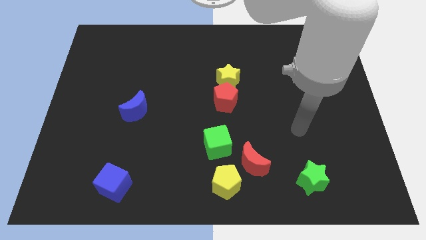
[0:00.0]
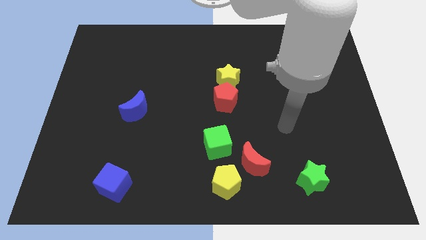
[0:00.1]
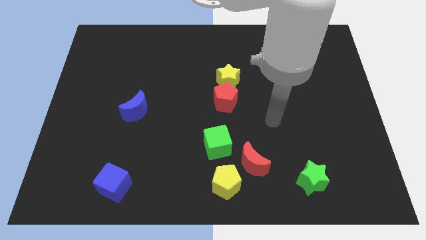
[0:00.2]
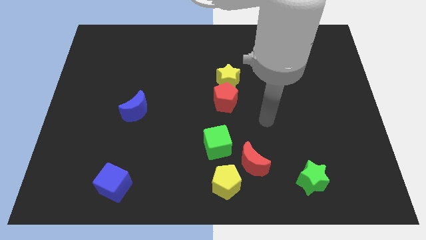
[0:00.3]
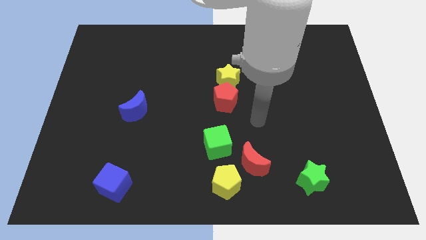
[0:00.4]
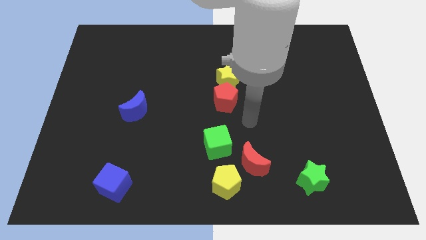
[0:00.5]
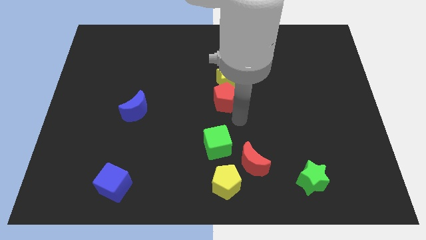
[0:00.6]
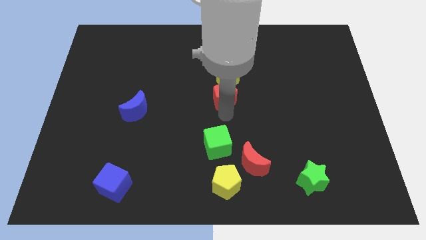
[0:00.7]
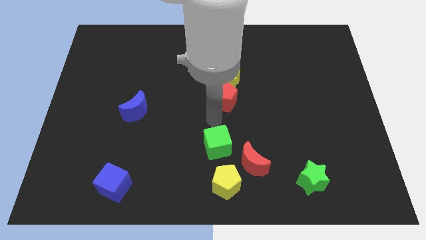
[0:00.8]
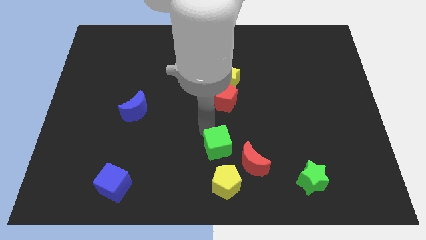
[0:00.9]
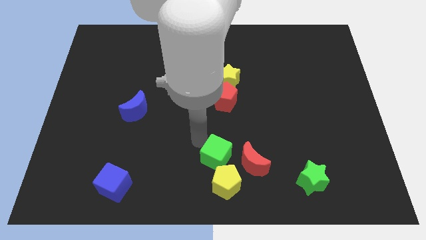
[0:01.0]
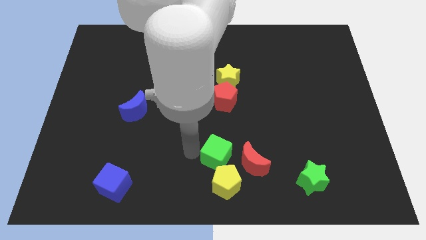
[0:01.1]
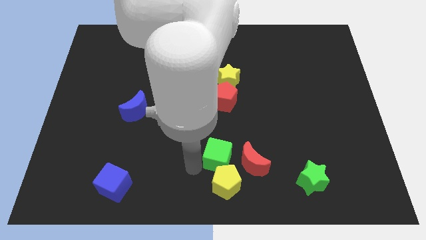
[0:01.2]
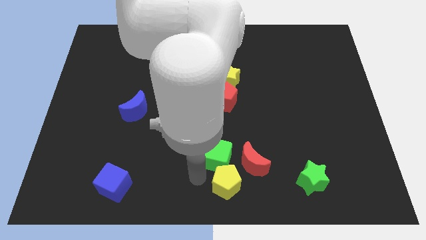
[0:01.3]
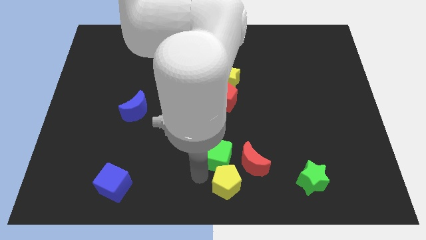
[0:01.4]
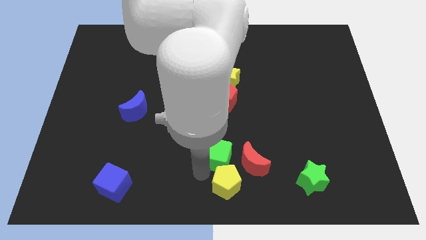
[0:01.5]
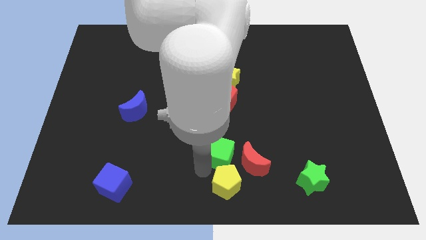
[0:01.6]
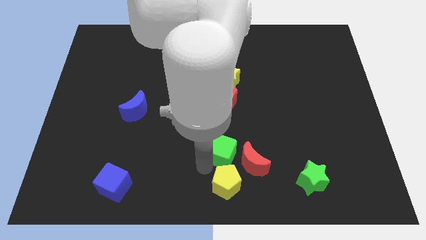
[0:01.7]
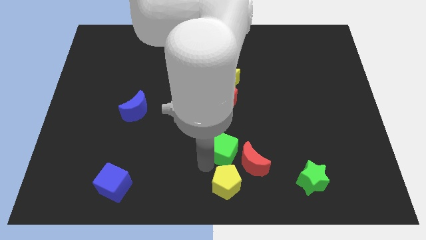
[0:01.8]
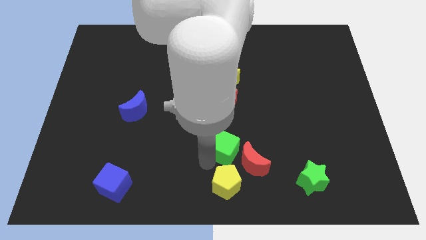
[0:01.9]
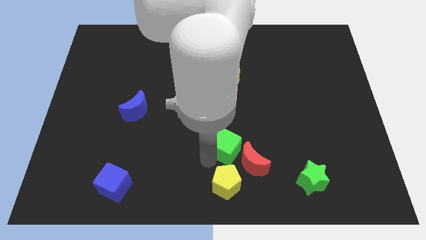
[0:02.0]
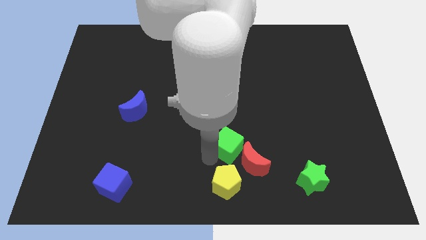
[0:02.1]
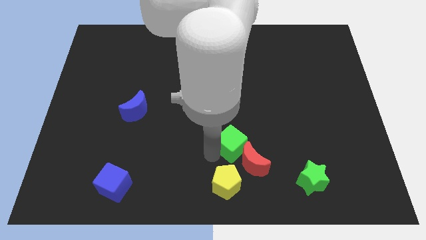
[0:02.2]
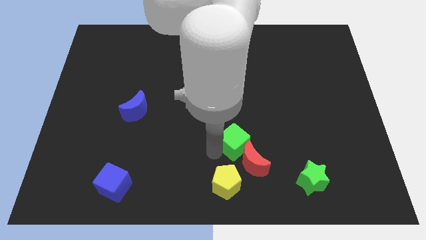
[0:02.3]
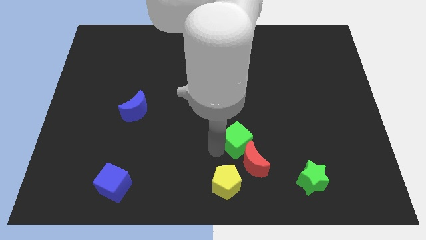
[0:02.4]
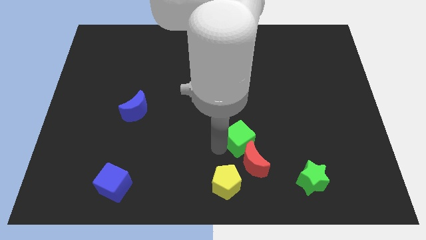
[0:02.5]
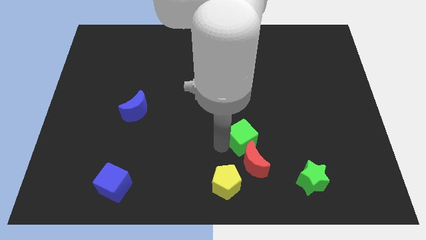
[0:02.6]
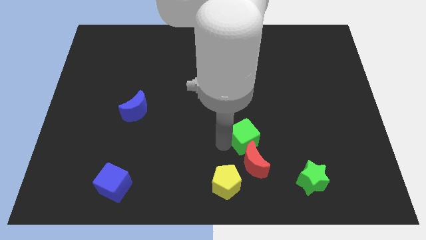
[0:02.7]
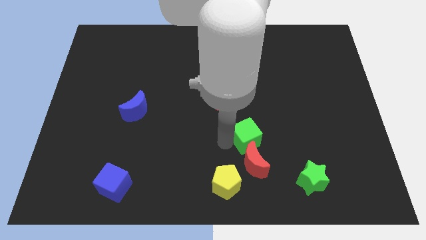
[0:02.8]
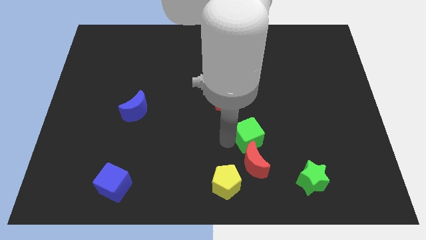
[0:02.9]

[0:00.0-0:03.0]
slightly push the green cube to the right

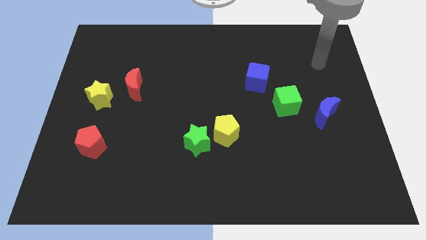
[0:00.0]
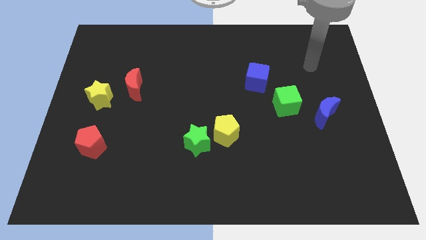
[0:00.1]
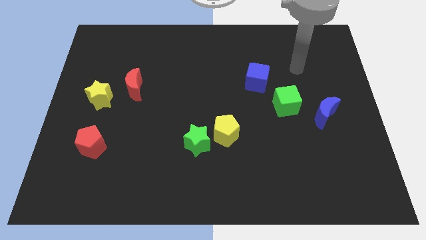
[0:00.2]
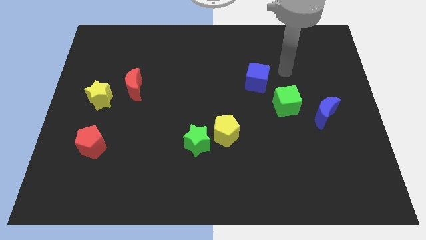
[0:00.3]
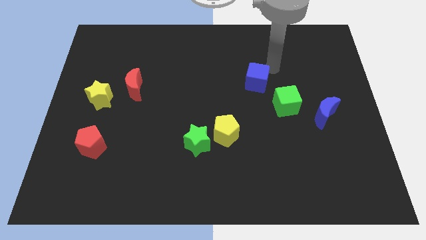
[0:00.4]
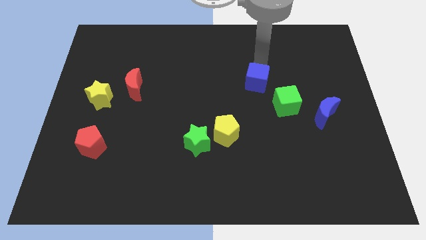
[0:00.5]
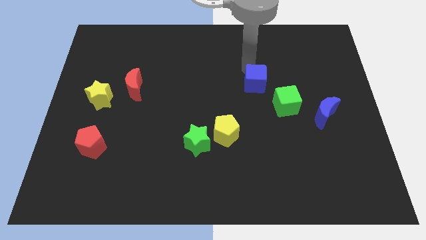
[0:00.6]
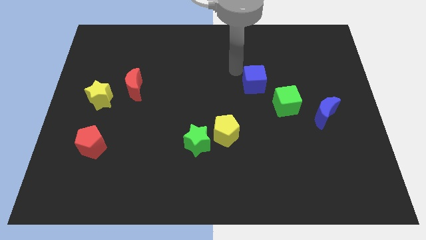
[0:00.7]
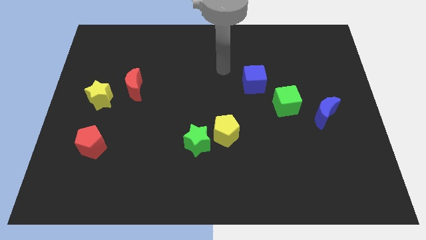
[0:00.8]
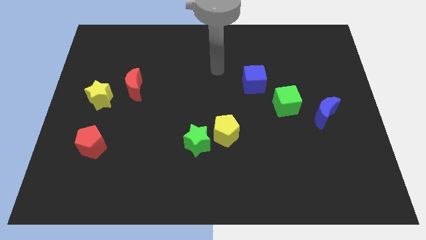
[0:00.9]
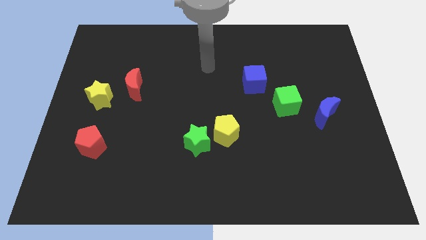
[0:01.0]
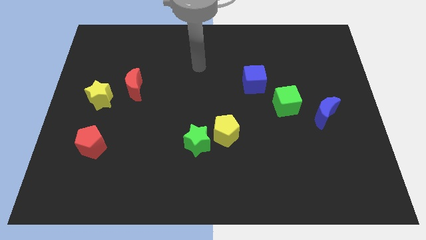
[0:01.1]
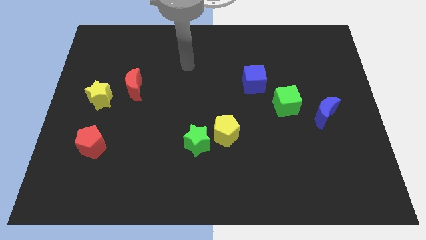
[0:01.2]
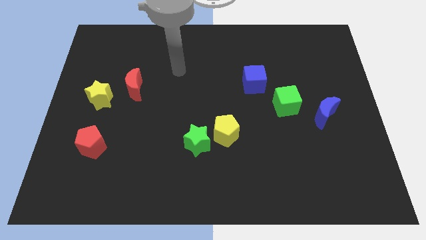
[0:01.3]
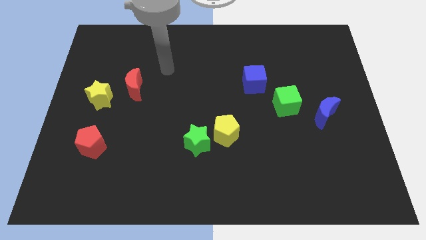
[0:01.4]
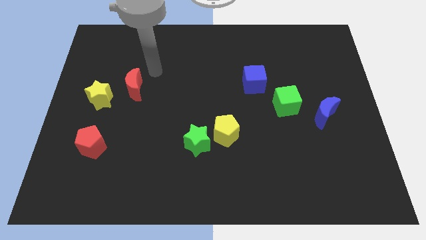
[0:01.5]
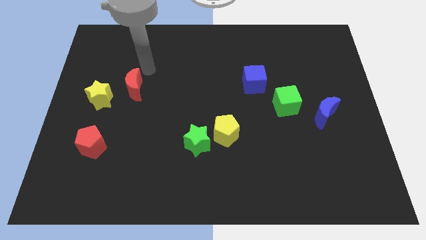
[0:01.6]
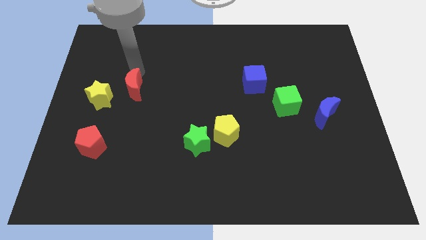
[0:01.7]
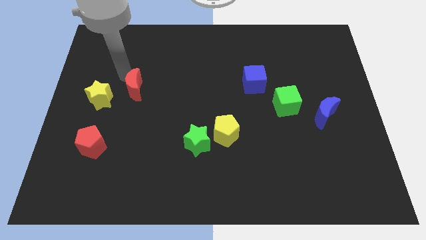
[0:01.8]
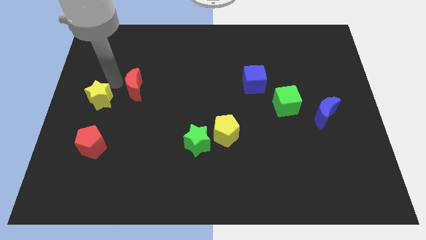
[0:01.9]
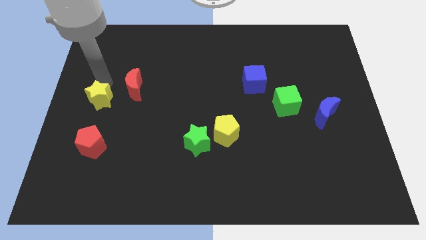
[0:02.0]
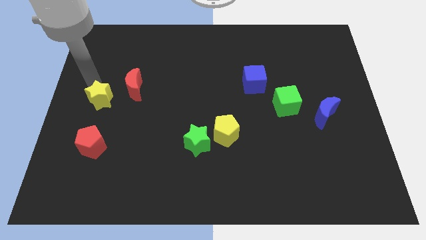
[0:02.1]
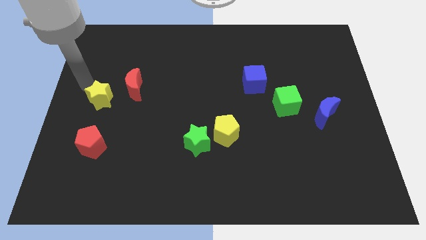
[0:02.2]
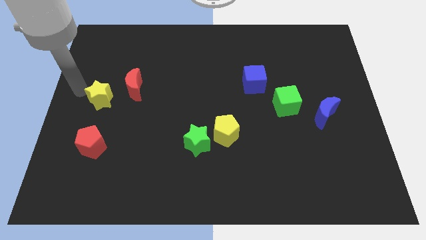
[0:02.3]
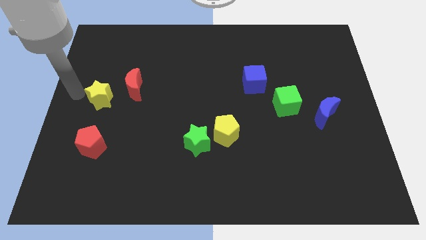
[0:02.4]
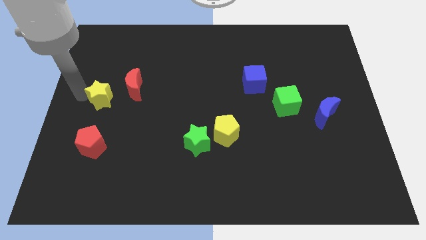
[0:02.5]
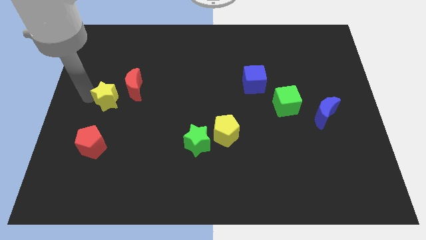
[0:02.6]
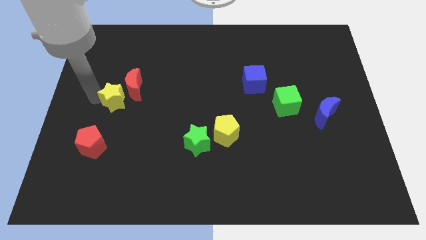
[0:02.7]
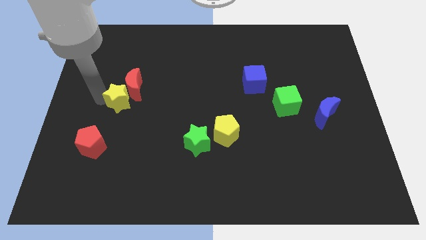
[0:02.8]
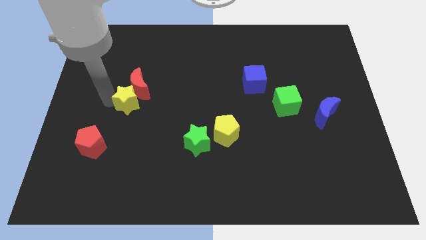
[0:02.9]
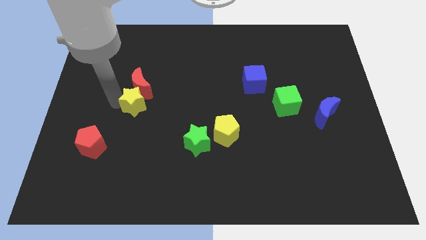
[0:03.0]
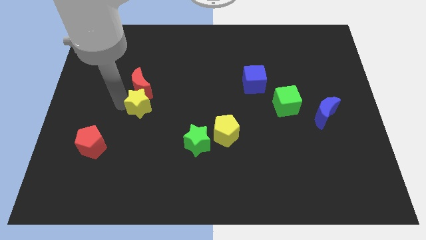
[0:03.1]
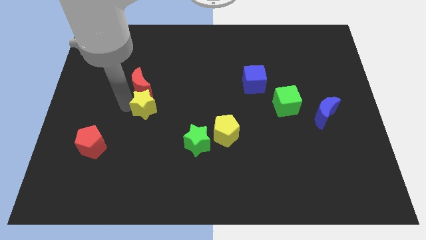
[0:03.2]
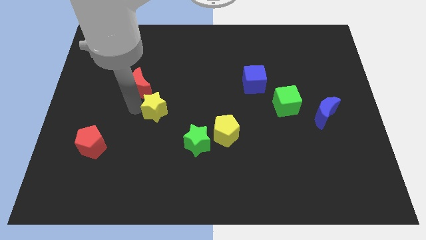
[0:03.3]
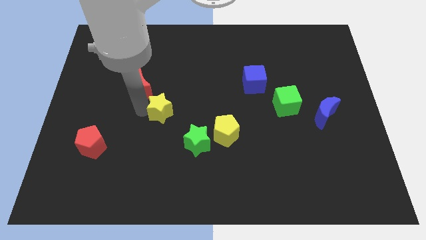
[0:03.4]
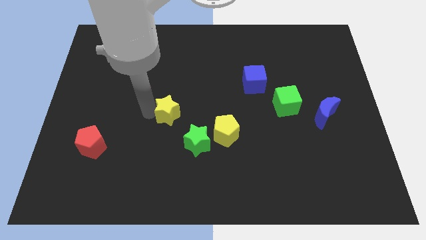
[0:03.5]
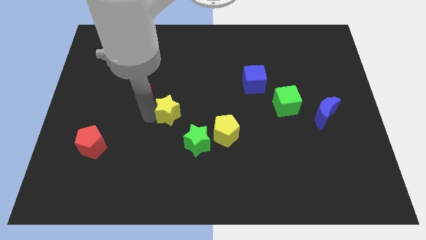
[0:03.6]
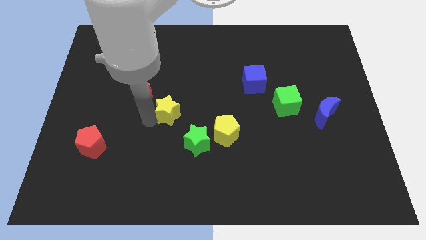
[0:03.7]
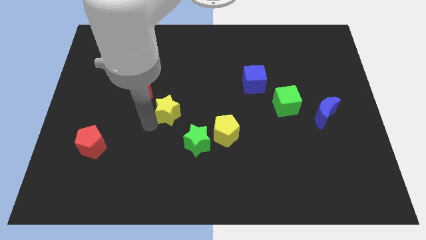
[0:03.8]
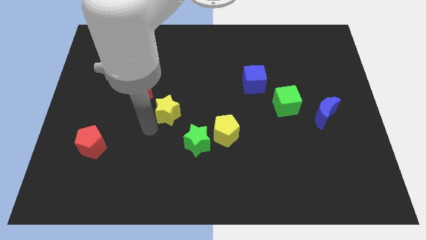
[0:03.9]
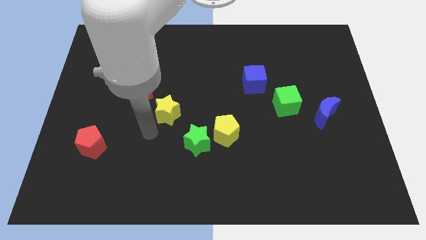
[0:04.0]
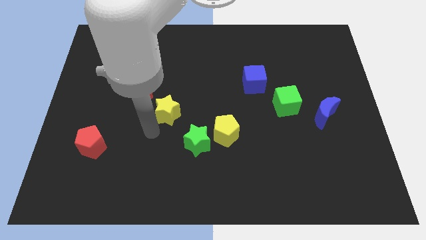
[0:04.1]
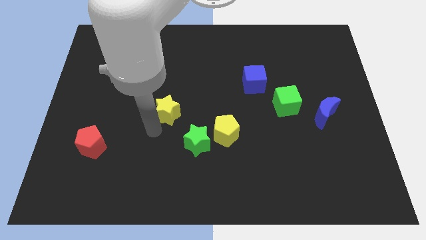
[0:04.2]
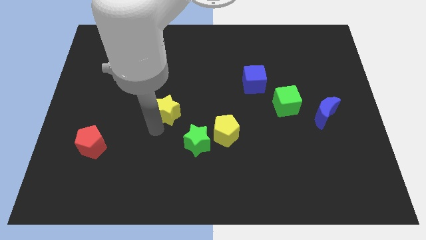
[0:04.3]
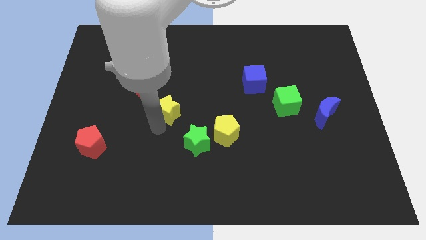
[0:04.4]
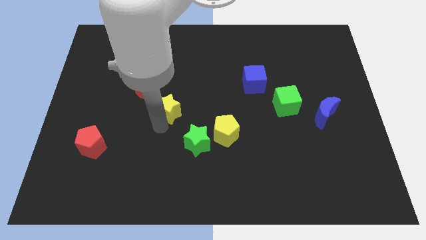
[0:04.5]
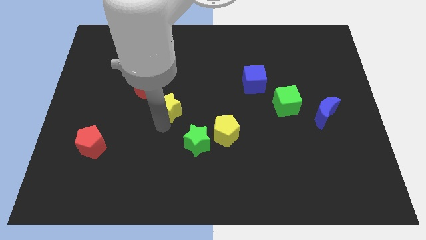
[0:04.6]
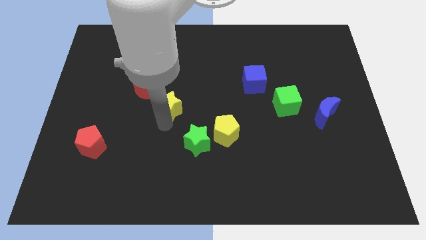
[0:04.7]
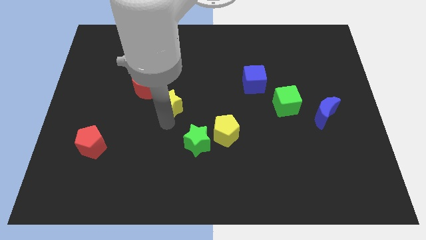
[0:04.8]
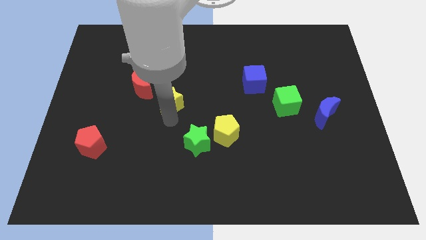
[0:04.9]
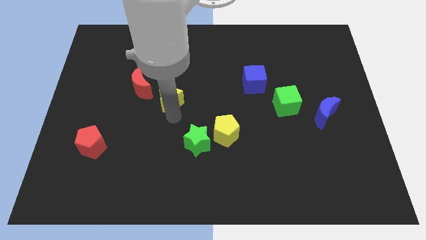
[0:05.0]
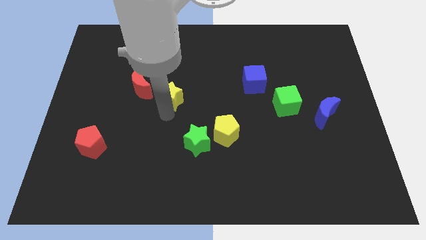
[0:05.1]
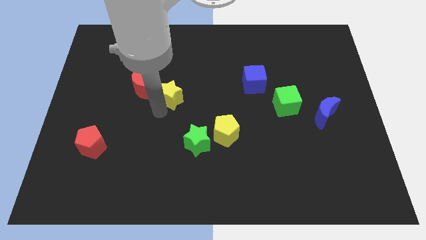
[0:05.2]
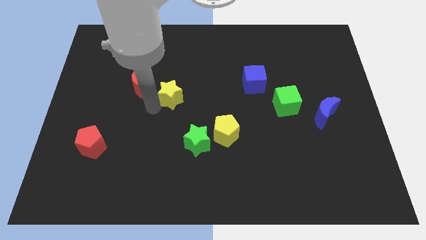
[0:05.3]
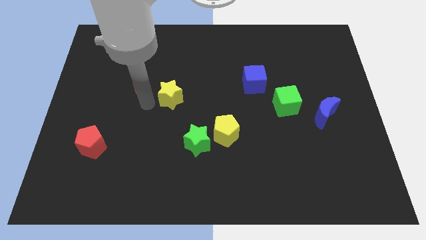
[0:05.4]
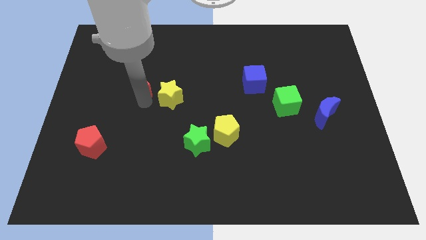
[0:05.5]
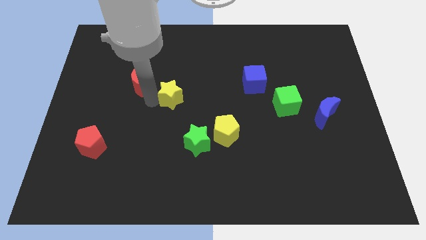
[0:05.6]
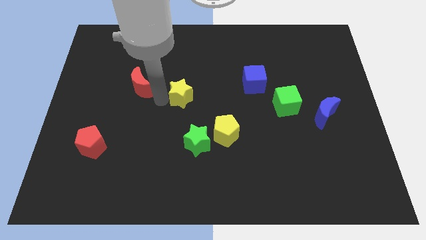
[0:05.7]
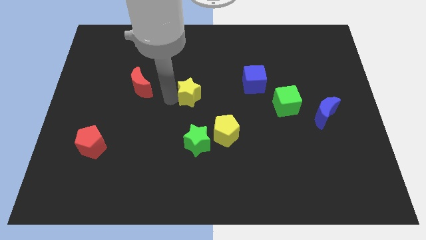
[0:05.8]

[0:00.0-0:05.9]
move the yellow star right
